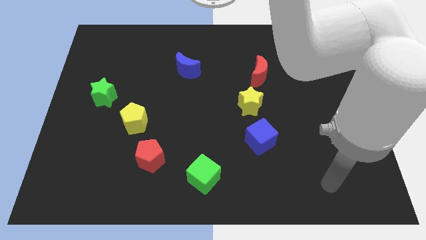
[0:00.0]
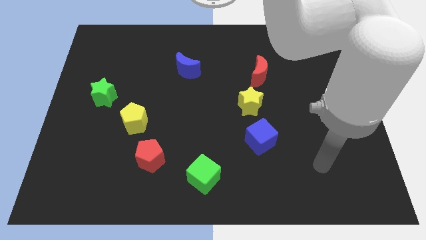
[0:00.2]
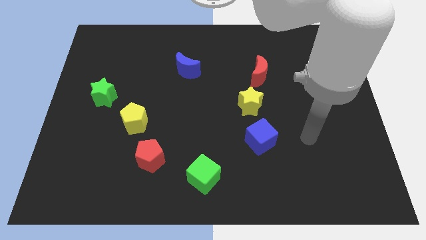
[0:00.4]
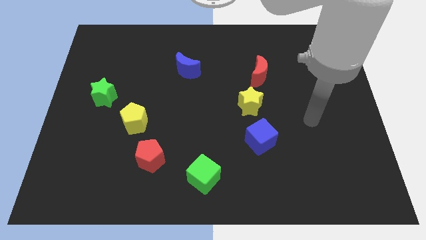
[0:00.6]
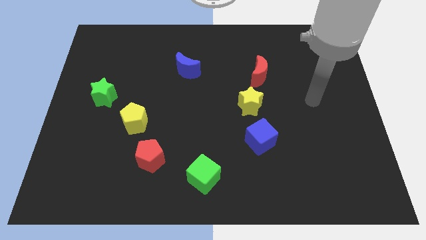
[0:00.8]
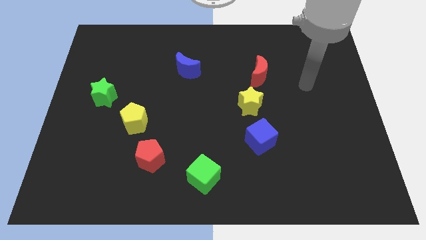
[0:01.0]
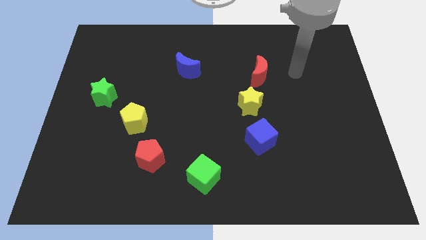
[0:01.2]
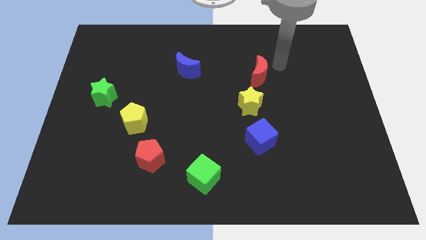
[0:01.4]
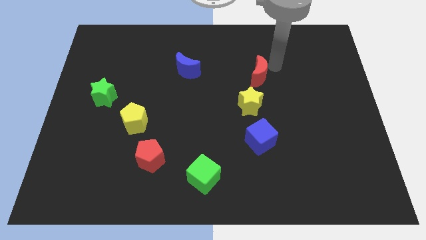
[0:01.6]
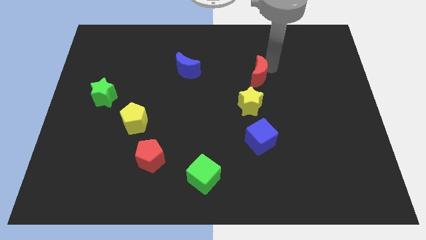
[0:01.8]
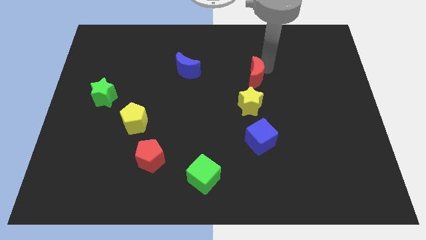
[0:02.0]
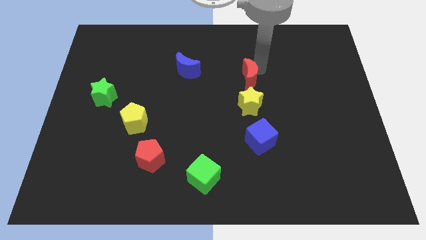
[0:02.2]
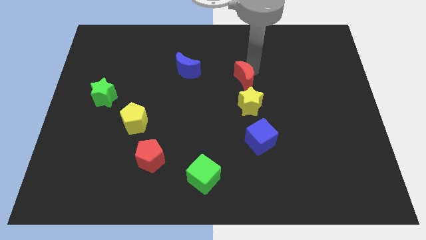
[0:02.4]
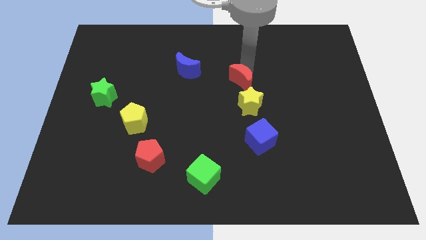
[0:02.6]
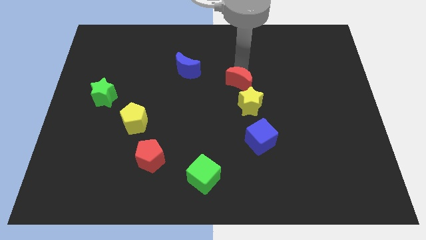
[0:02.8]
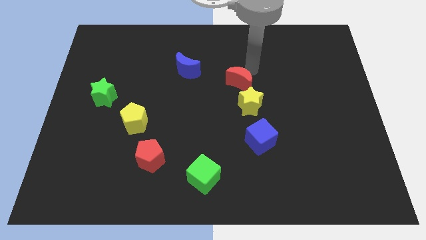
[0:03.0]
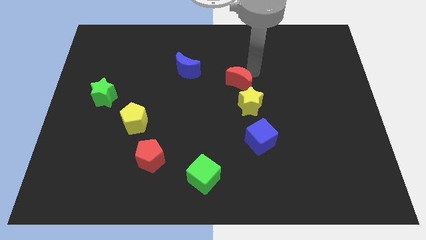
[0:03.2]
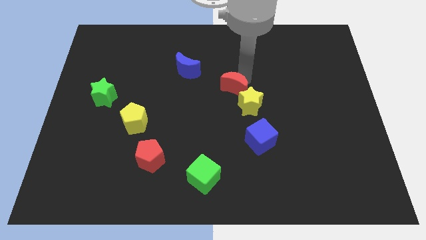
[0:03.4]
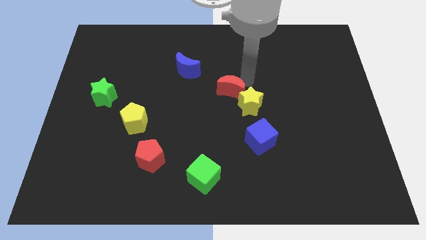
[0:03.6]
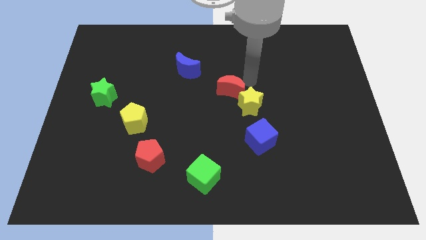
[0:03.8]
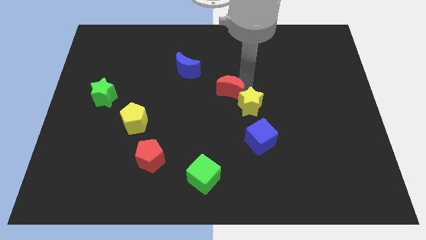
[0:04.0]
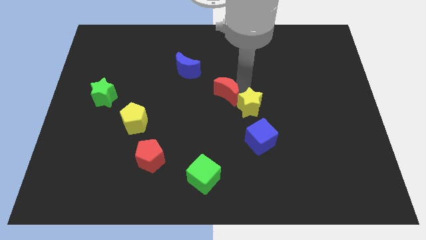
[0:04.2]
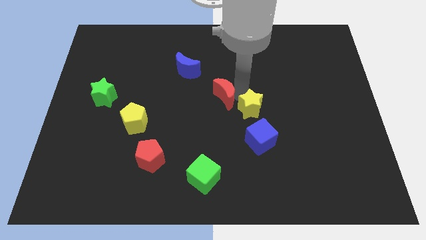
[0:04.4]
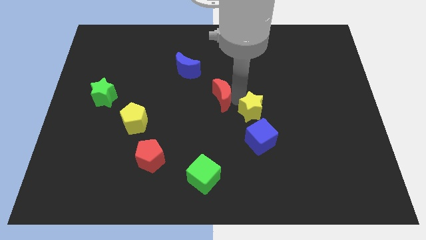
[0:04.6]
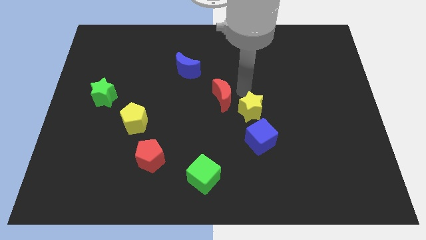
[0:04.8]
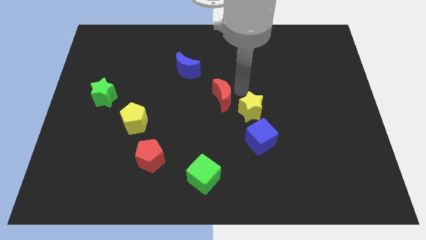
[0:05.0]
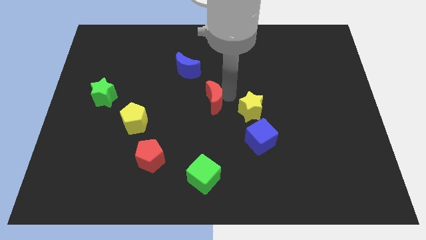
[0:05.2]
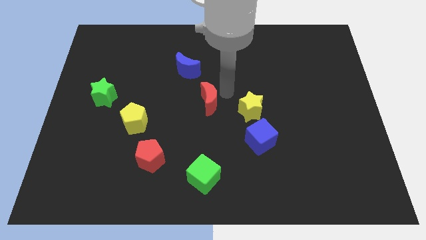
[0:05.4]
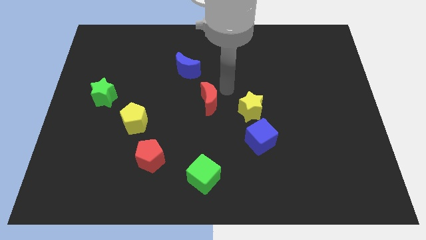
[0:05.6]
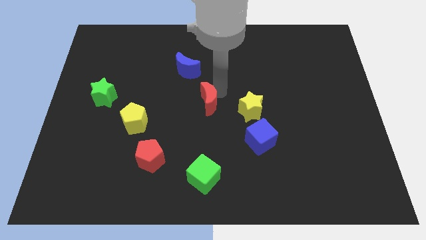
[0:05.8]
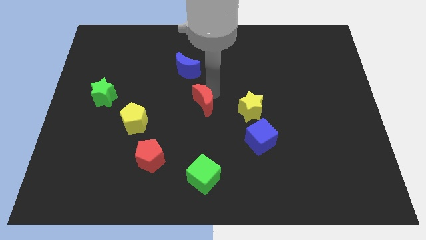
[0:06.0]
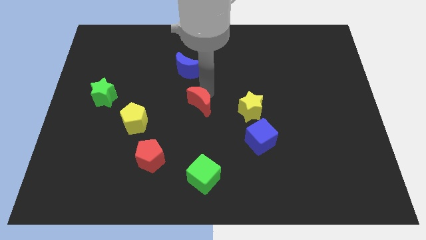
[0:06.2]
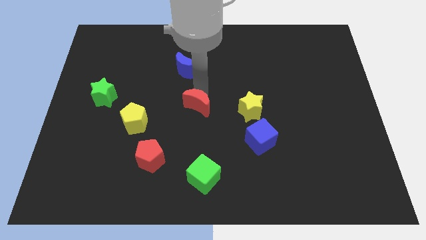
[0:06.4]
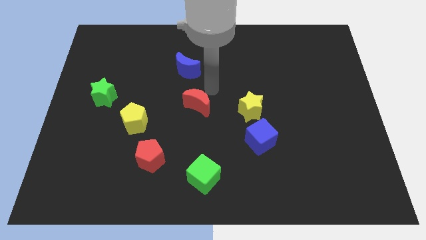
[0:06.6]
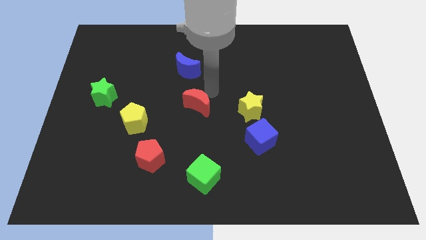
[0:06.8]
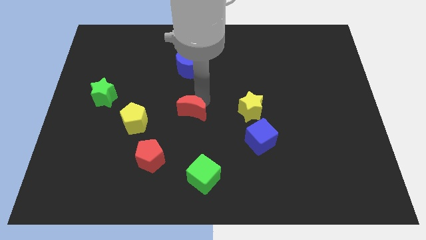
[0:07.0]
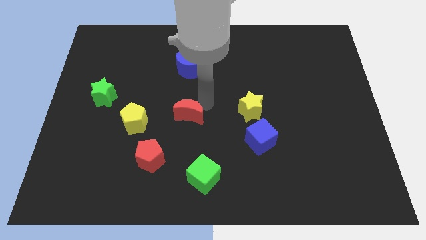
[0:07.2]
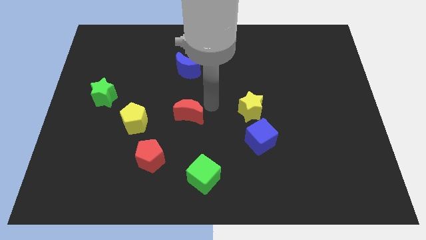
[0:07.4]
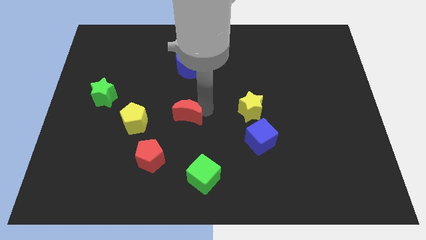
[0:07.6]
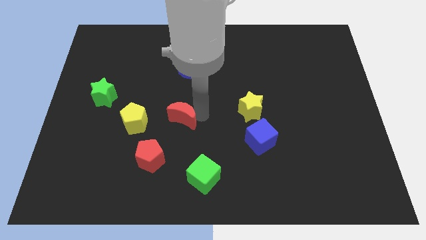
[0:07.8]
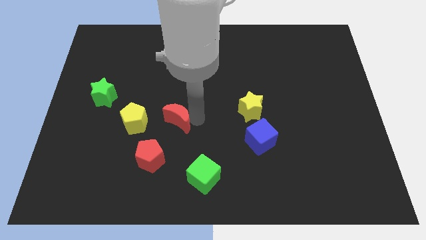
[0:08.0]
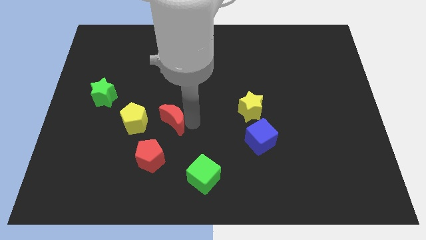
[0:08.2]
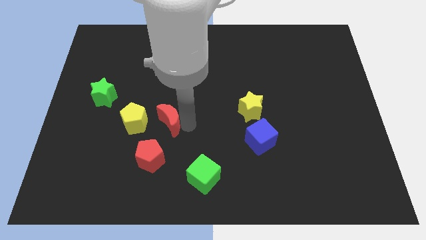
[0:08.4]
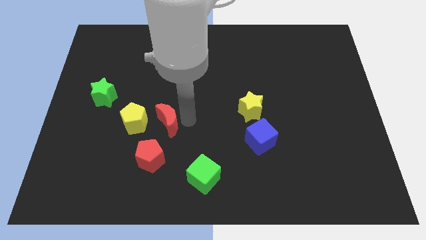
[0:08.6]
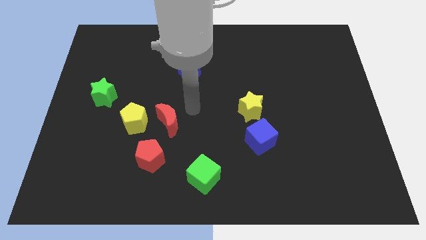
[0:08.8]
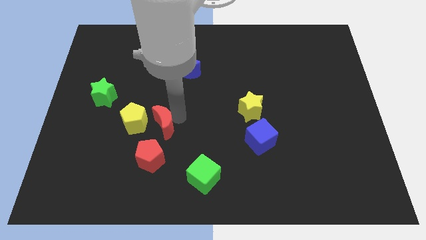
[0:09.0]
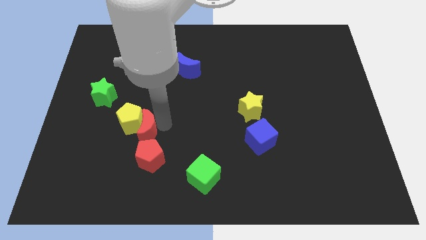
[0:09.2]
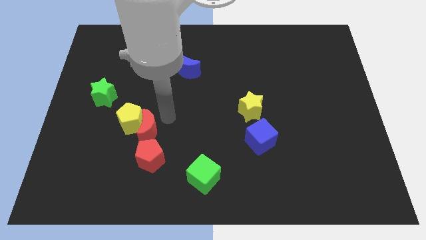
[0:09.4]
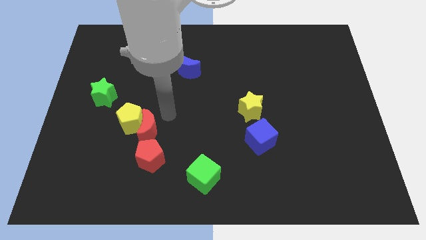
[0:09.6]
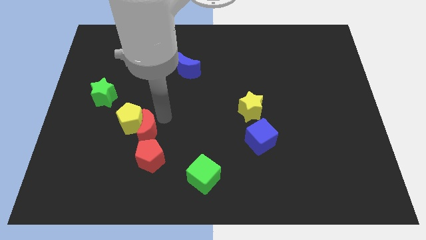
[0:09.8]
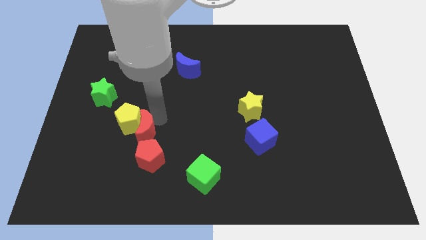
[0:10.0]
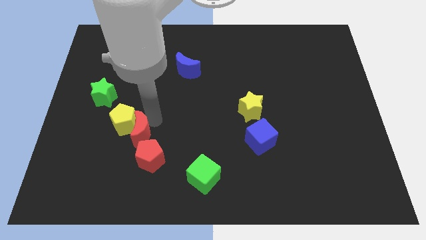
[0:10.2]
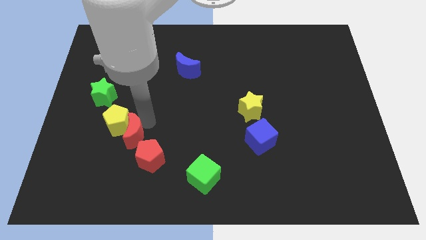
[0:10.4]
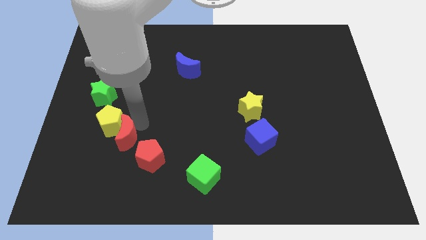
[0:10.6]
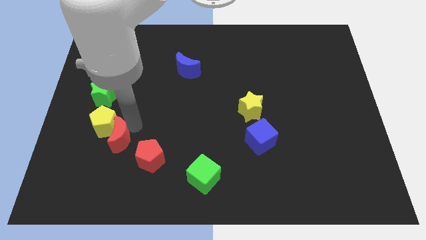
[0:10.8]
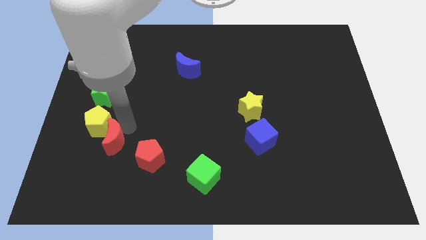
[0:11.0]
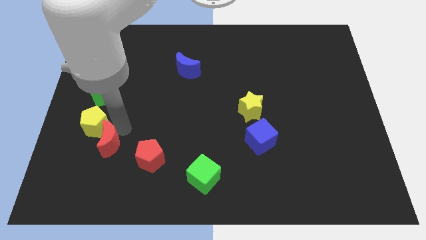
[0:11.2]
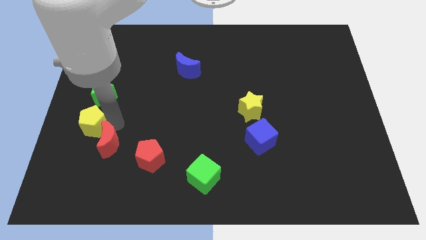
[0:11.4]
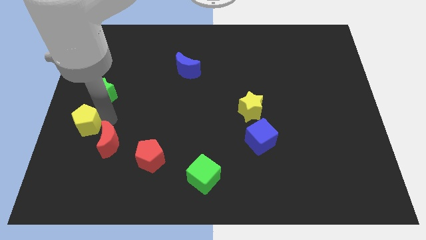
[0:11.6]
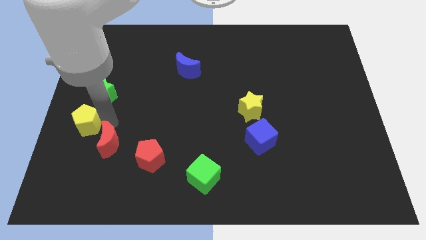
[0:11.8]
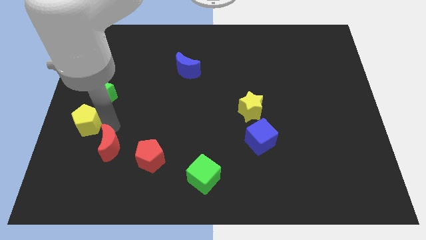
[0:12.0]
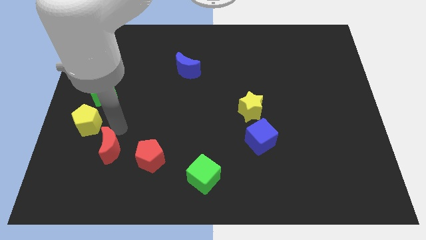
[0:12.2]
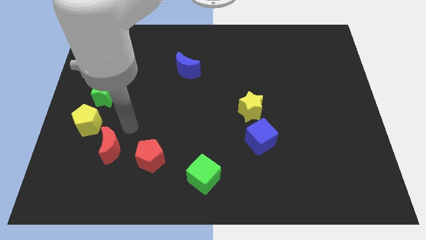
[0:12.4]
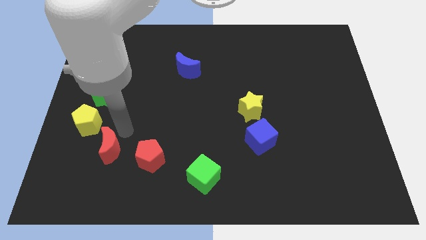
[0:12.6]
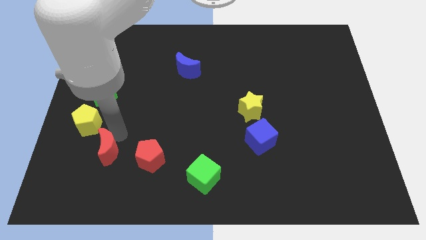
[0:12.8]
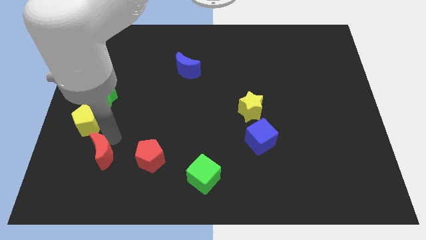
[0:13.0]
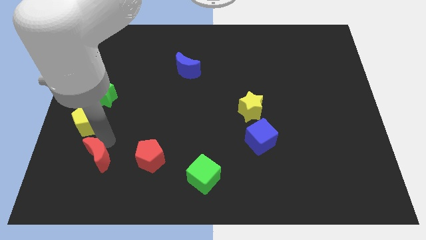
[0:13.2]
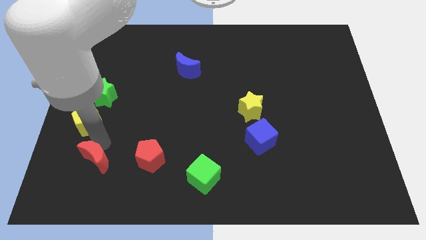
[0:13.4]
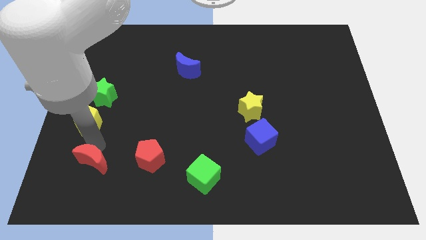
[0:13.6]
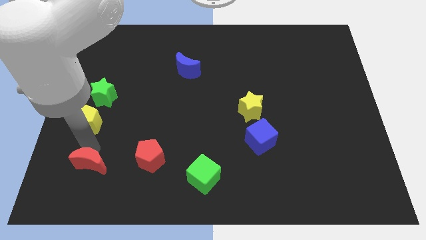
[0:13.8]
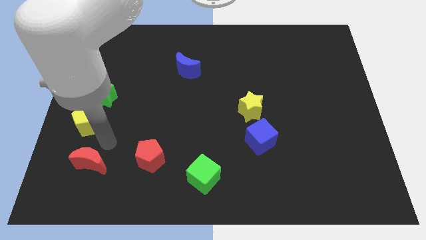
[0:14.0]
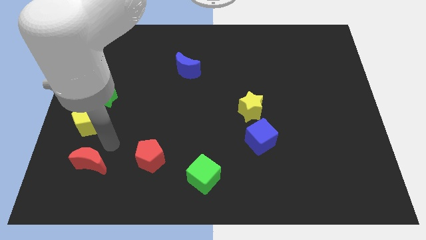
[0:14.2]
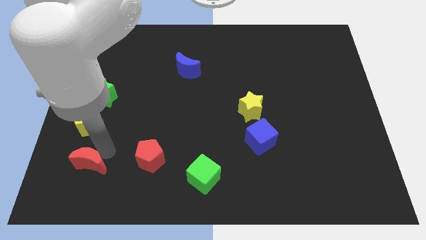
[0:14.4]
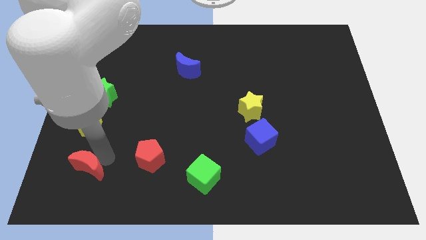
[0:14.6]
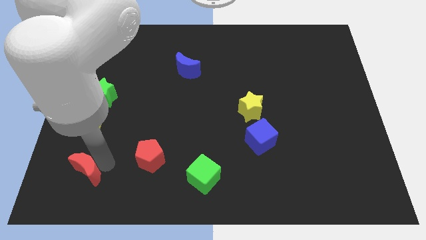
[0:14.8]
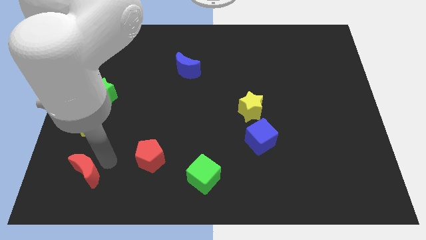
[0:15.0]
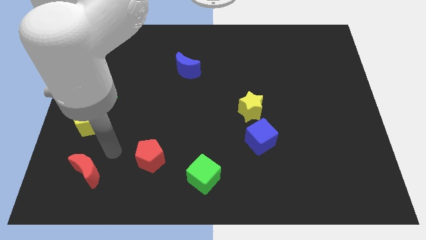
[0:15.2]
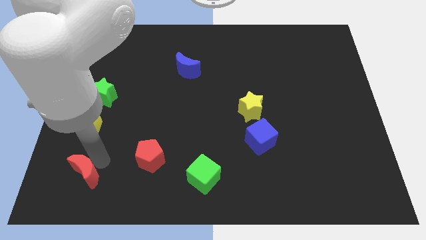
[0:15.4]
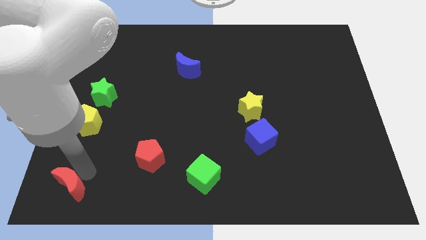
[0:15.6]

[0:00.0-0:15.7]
put the red moon to the bottom left corner
